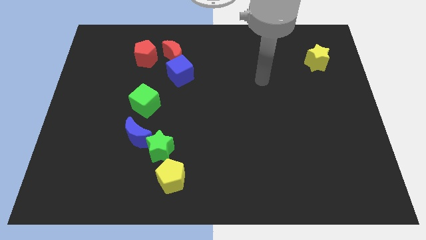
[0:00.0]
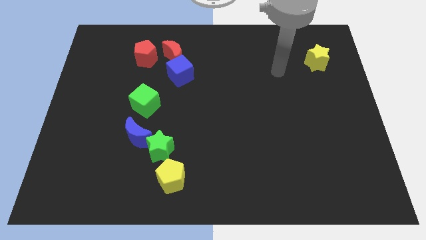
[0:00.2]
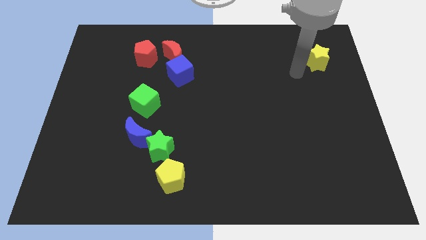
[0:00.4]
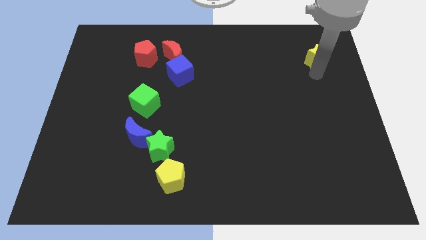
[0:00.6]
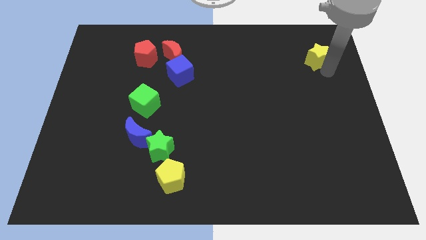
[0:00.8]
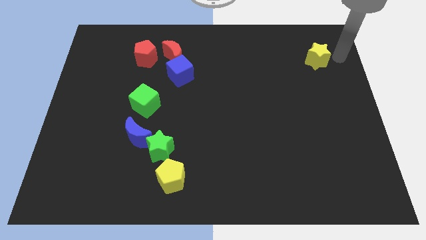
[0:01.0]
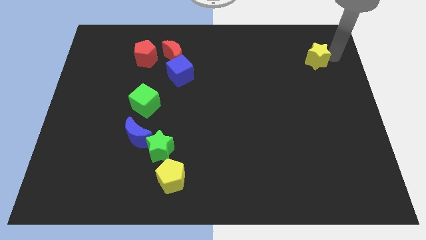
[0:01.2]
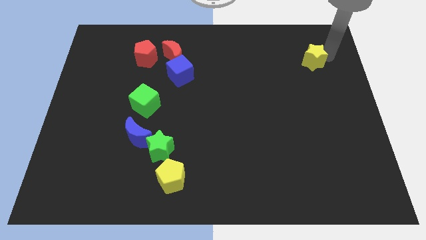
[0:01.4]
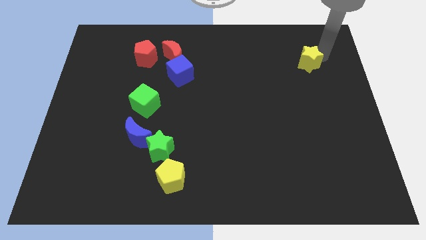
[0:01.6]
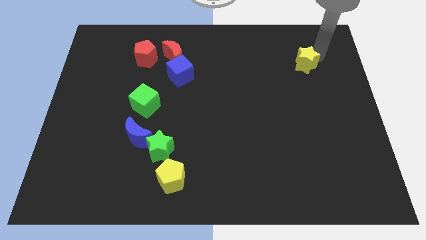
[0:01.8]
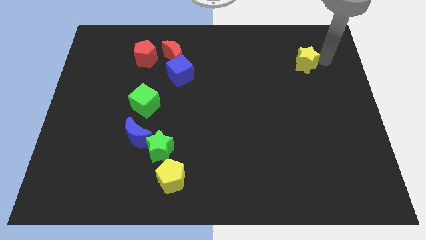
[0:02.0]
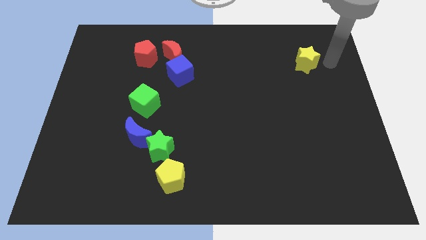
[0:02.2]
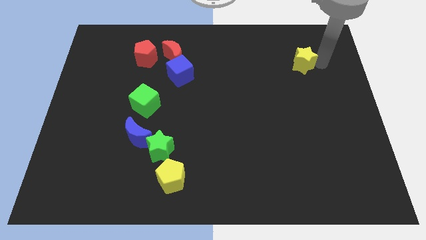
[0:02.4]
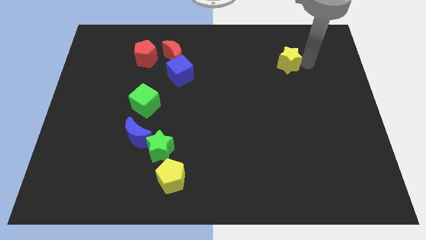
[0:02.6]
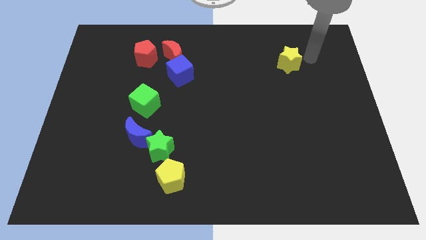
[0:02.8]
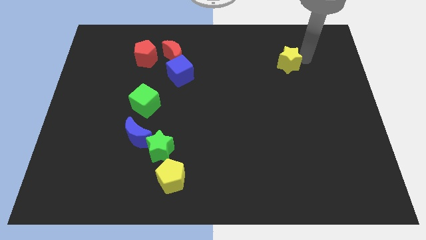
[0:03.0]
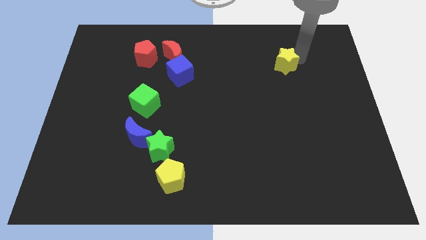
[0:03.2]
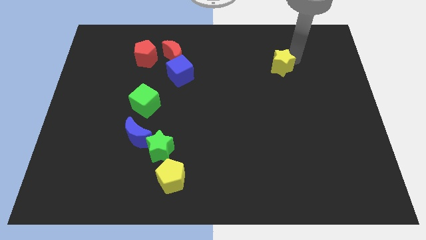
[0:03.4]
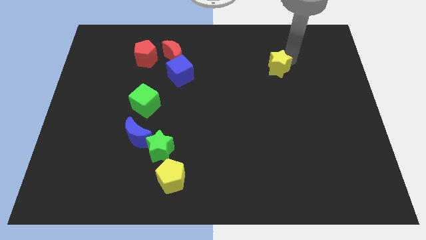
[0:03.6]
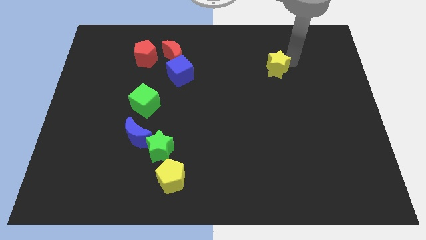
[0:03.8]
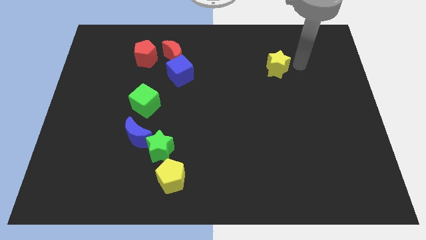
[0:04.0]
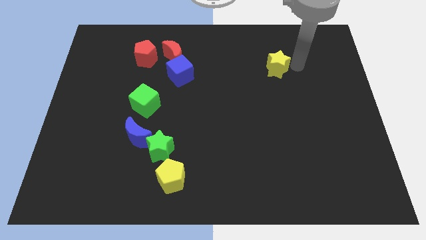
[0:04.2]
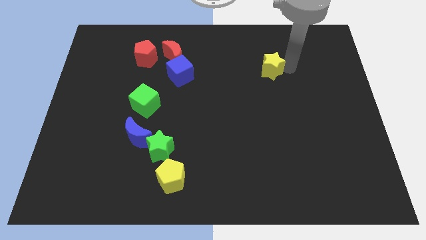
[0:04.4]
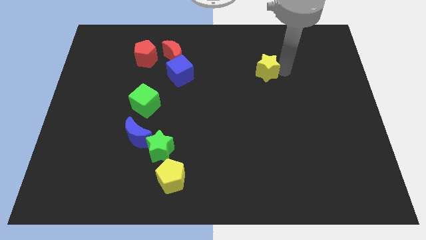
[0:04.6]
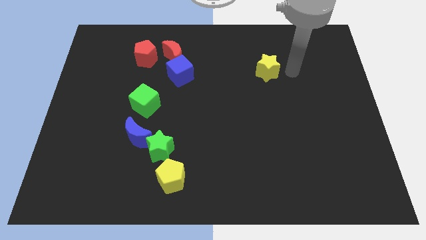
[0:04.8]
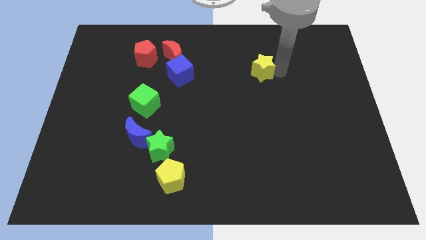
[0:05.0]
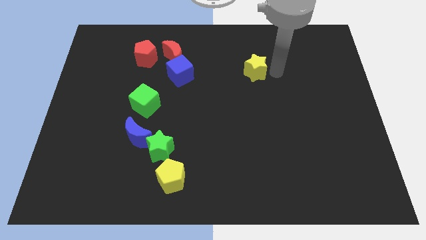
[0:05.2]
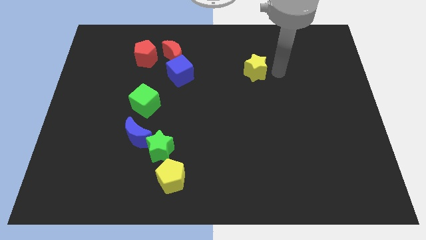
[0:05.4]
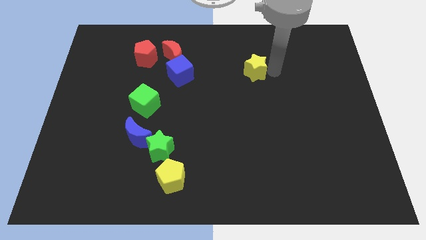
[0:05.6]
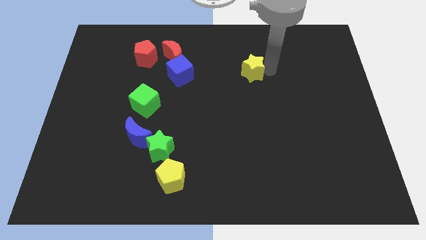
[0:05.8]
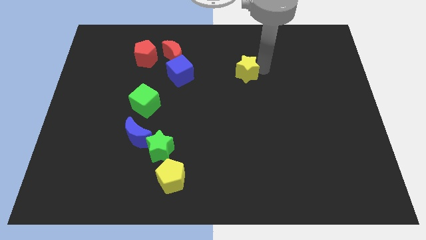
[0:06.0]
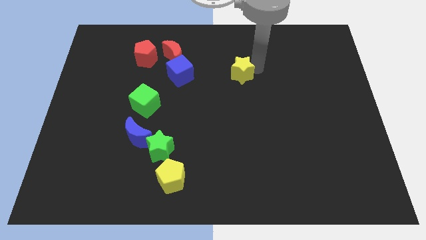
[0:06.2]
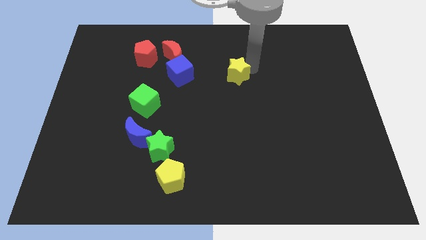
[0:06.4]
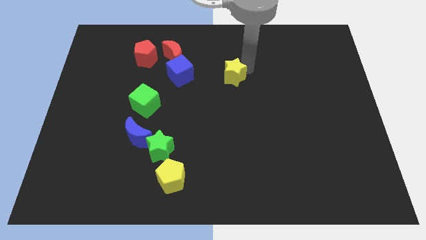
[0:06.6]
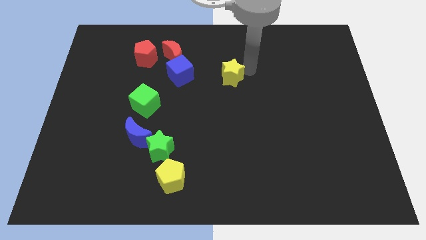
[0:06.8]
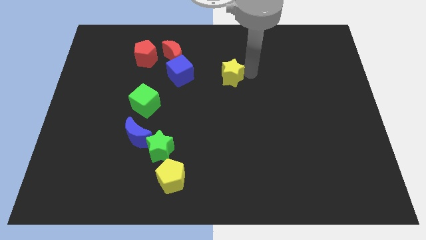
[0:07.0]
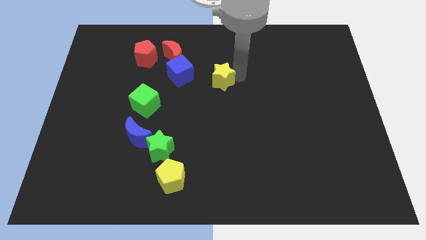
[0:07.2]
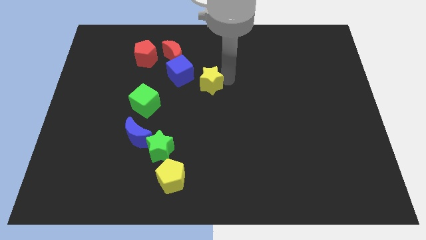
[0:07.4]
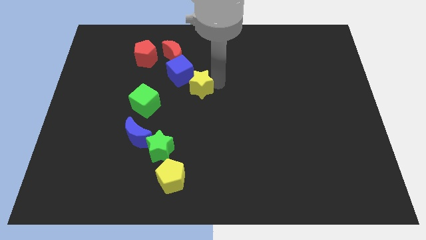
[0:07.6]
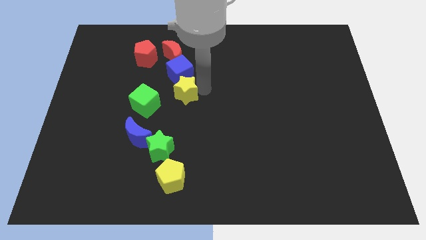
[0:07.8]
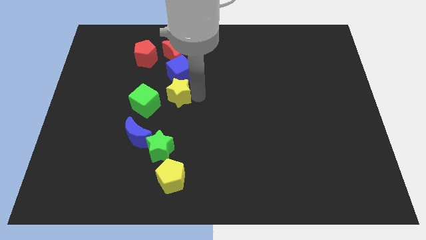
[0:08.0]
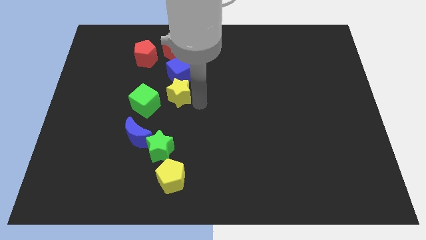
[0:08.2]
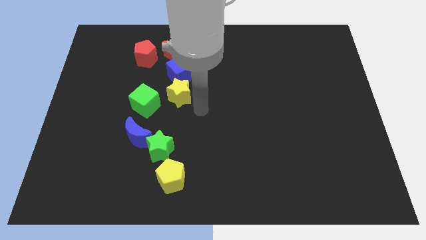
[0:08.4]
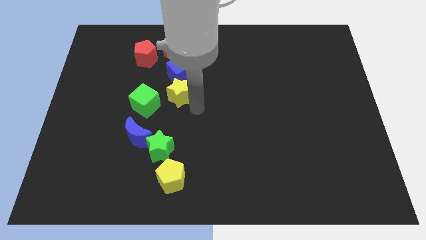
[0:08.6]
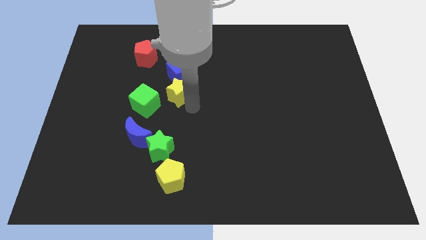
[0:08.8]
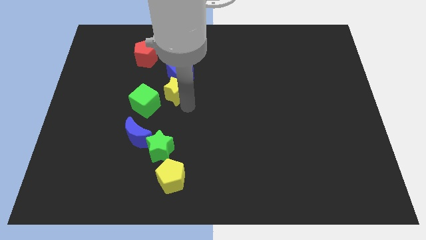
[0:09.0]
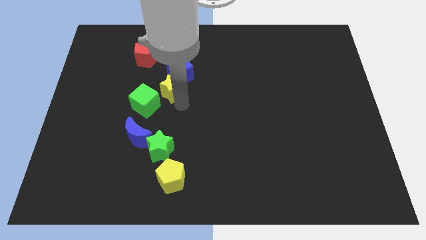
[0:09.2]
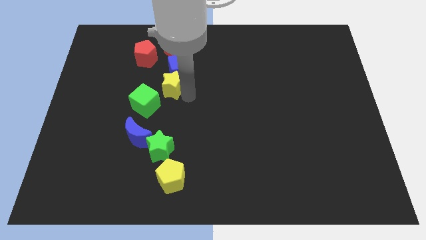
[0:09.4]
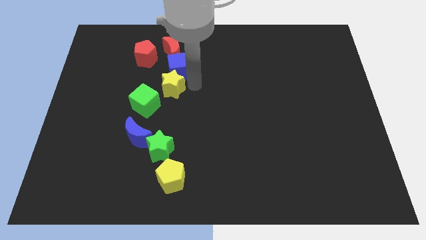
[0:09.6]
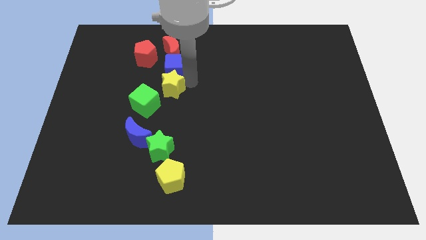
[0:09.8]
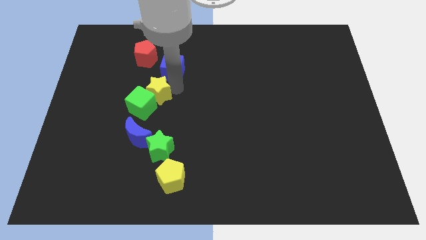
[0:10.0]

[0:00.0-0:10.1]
push the yellow star to the top side of the blue moon

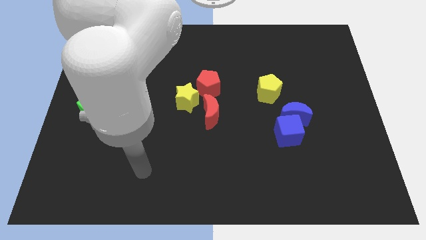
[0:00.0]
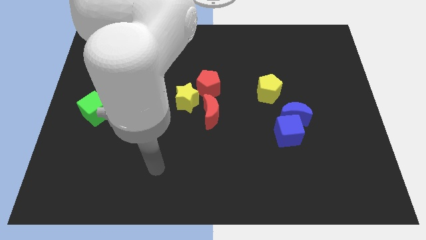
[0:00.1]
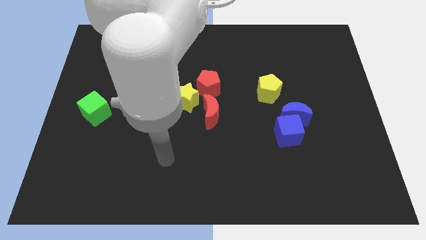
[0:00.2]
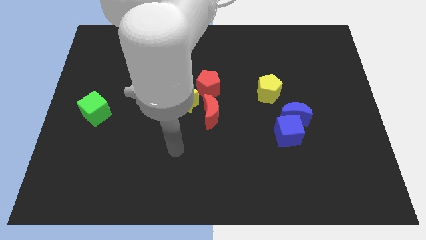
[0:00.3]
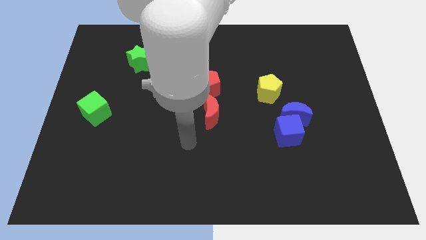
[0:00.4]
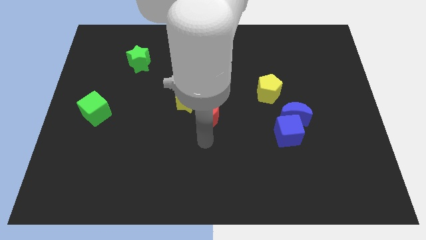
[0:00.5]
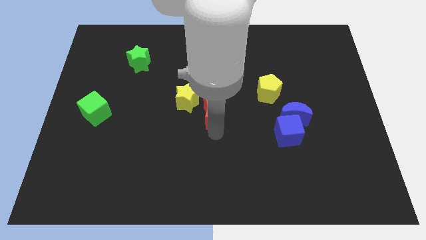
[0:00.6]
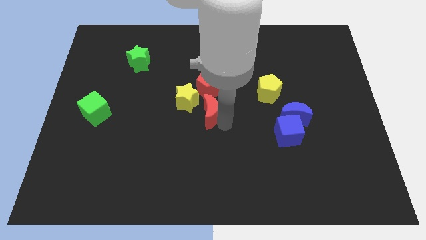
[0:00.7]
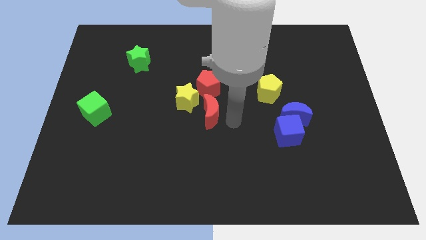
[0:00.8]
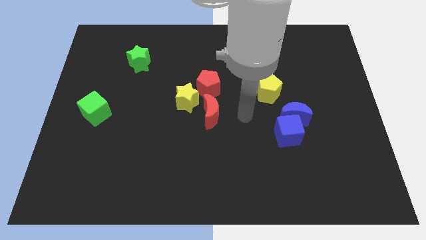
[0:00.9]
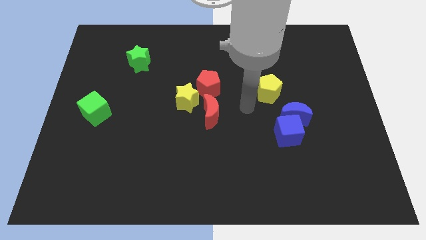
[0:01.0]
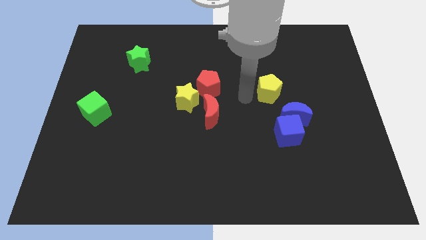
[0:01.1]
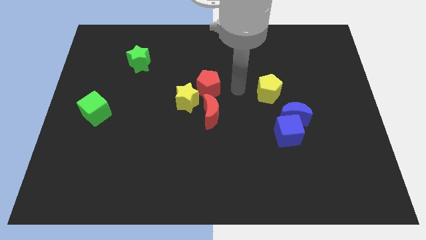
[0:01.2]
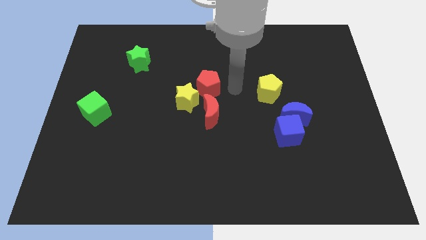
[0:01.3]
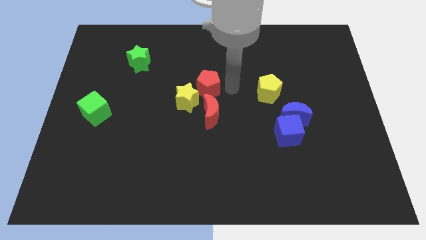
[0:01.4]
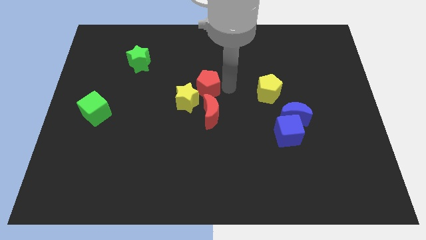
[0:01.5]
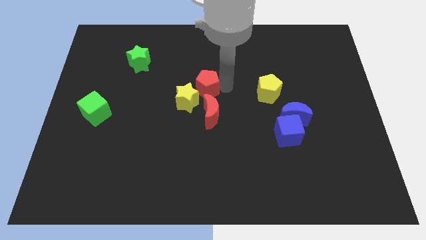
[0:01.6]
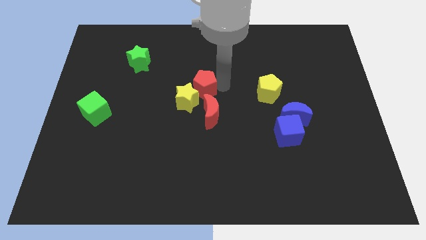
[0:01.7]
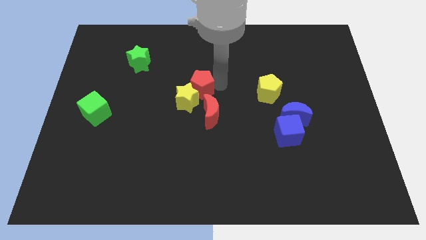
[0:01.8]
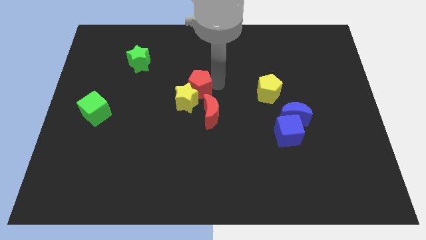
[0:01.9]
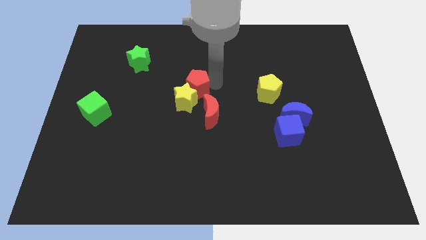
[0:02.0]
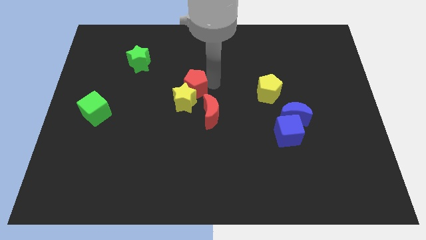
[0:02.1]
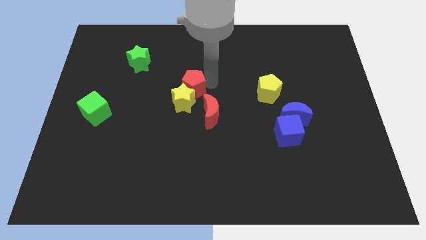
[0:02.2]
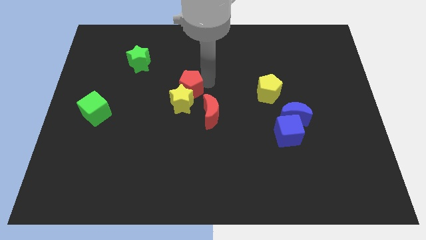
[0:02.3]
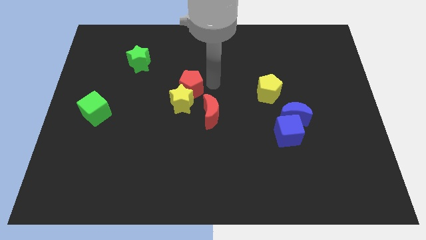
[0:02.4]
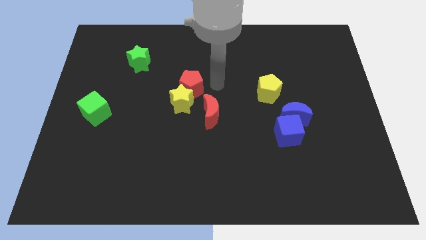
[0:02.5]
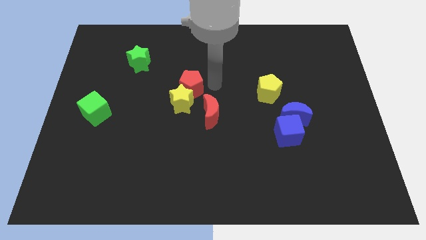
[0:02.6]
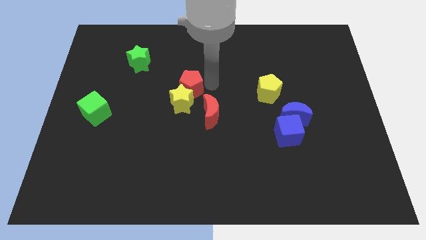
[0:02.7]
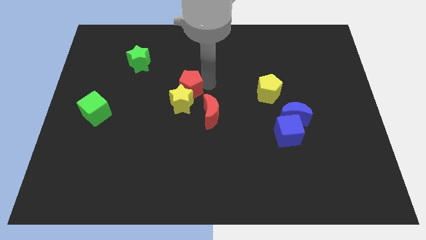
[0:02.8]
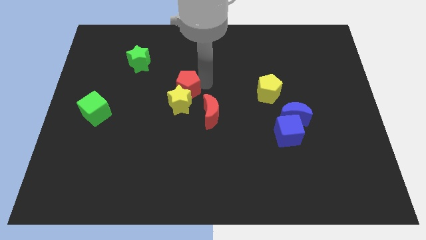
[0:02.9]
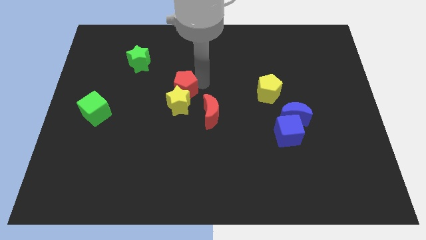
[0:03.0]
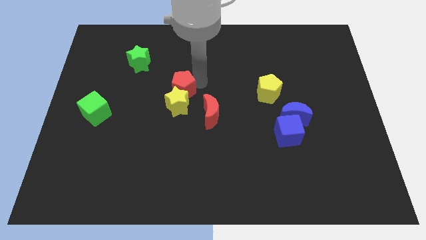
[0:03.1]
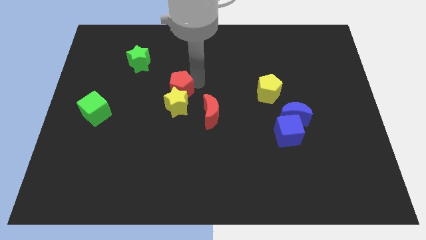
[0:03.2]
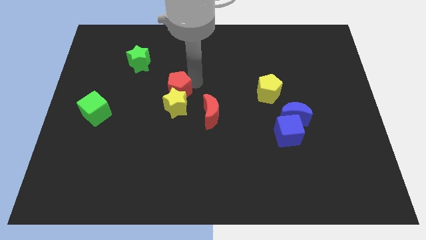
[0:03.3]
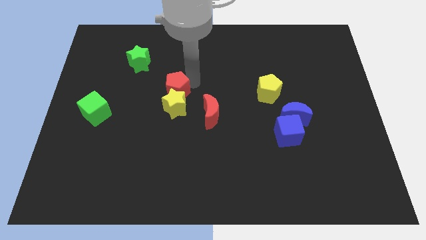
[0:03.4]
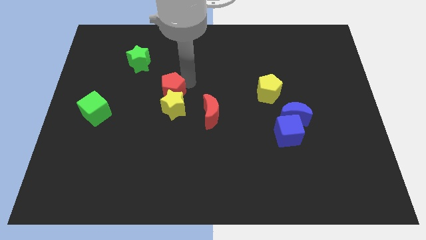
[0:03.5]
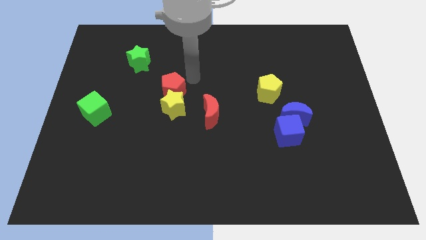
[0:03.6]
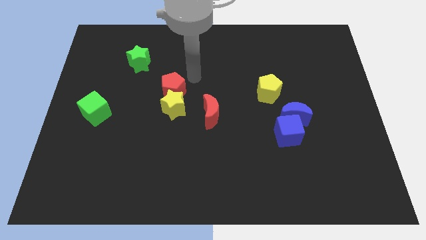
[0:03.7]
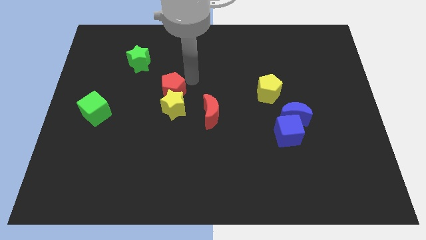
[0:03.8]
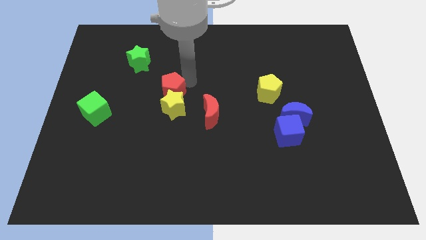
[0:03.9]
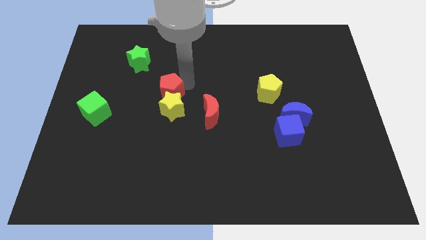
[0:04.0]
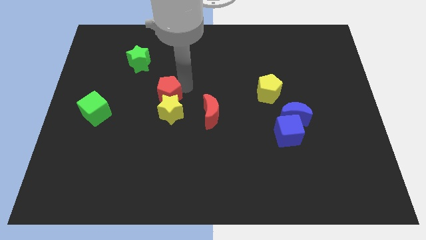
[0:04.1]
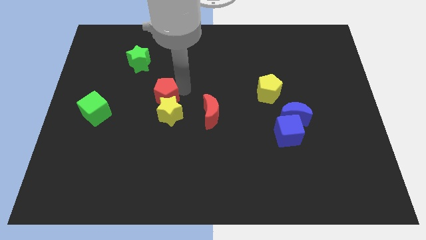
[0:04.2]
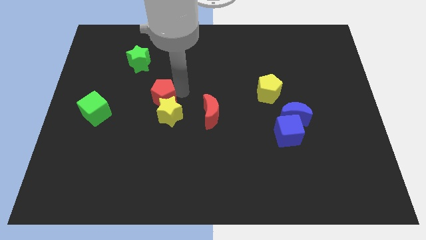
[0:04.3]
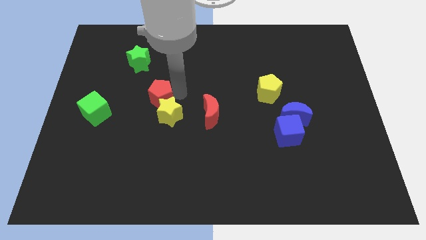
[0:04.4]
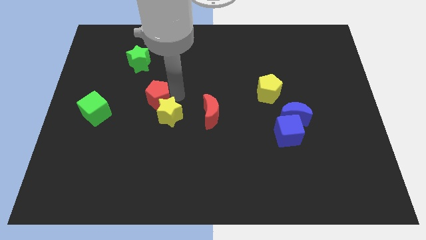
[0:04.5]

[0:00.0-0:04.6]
push the red pentagon right of the green cube
